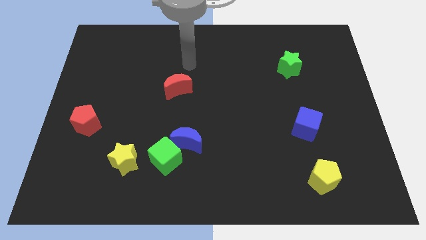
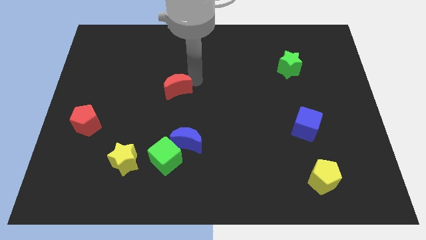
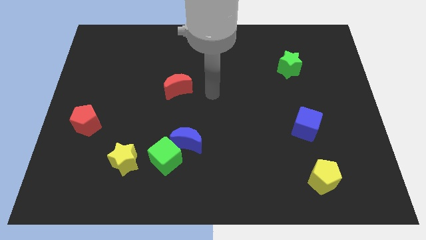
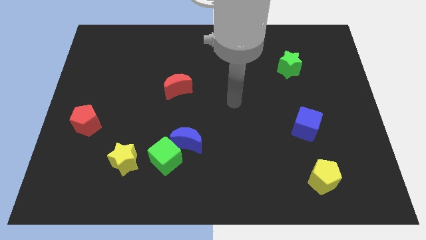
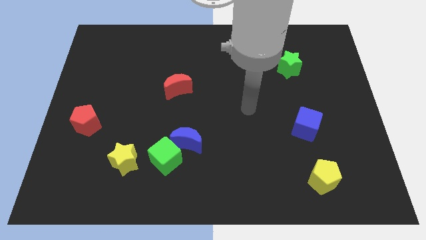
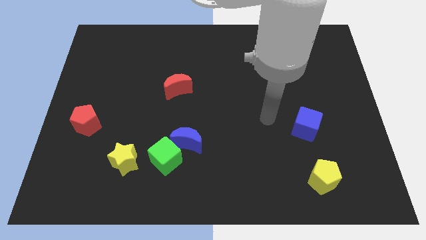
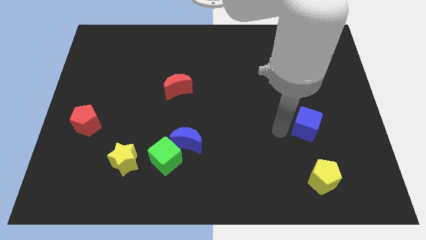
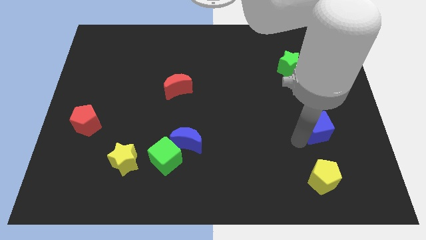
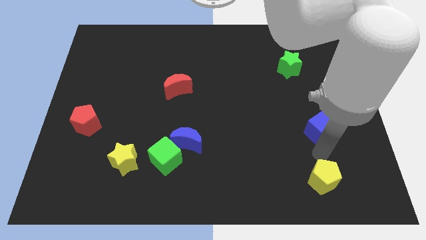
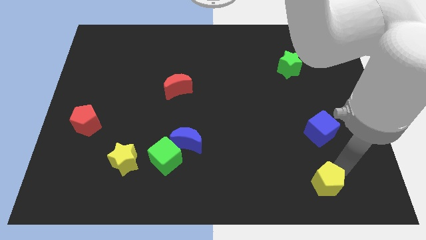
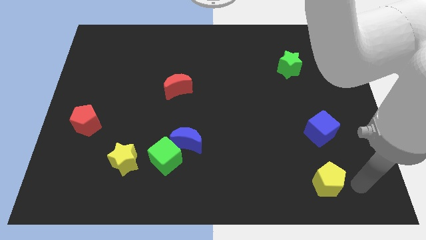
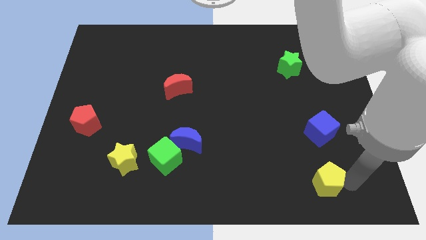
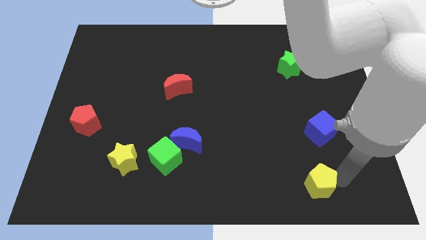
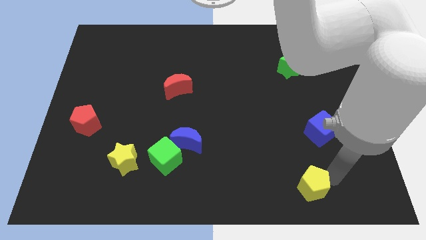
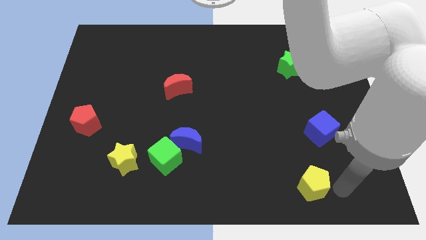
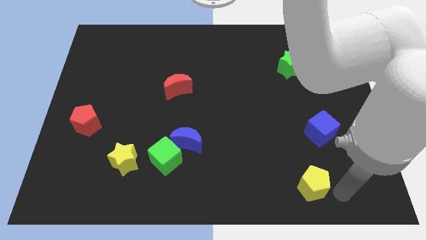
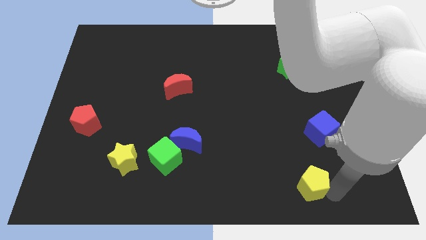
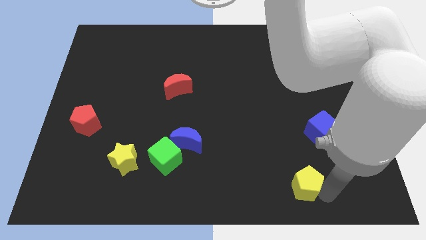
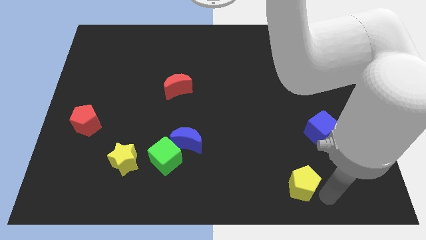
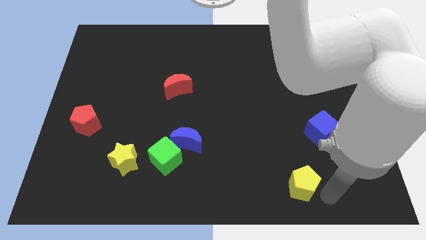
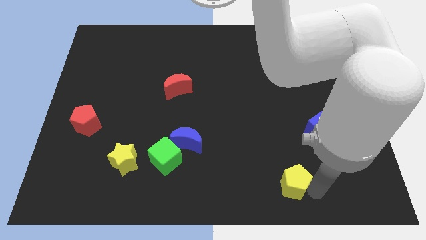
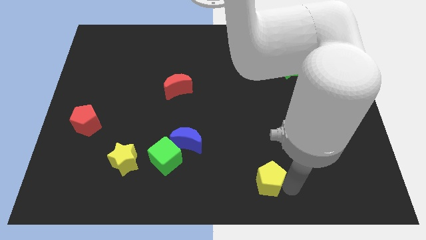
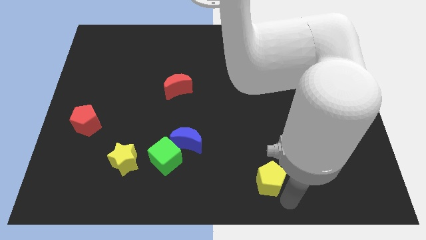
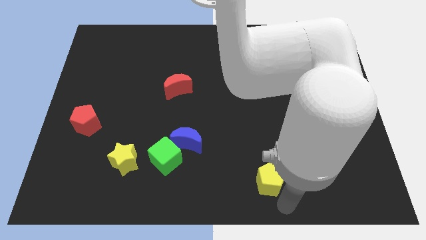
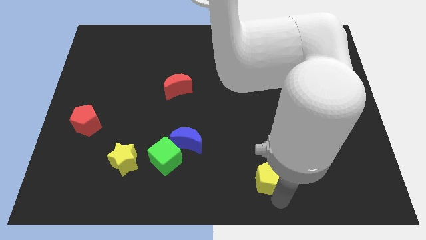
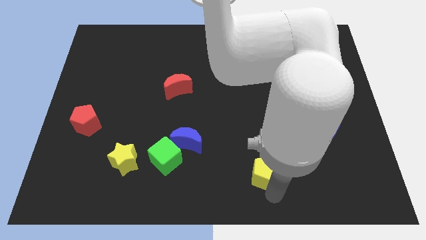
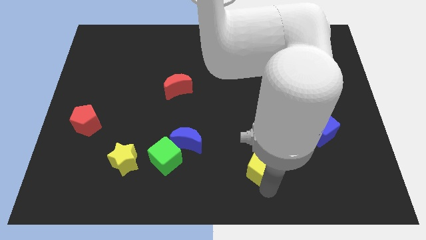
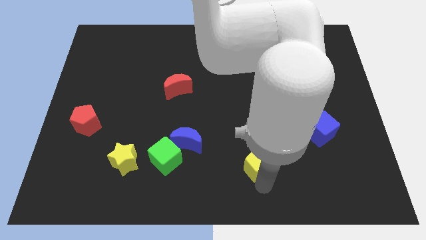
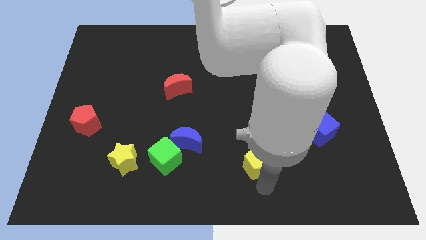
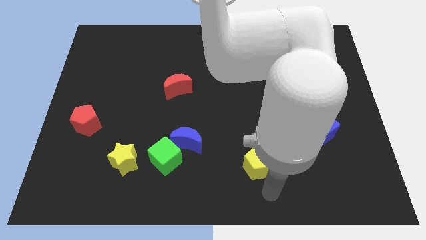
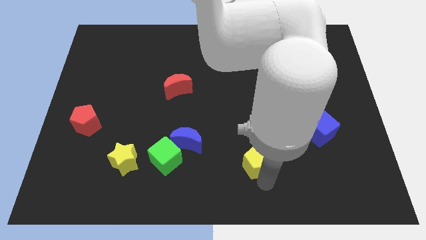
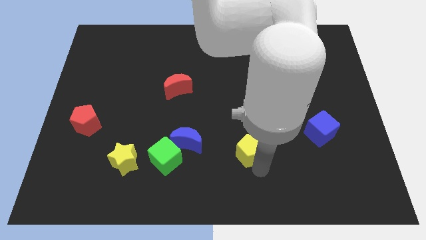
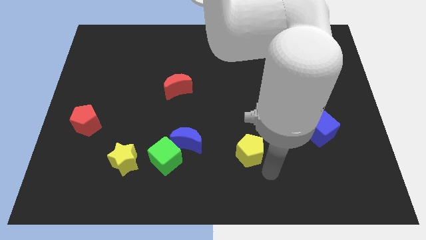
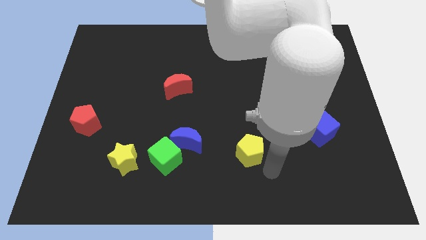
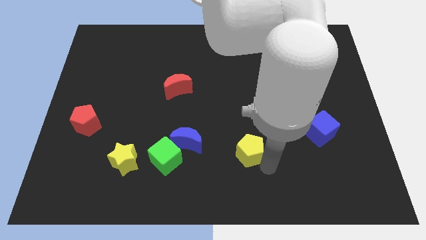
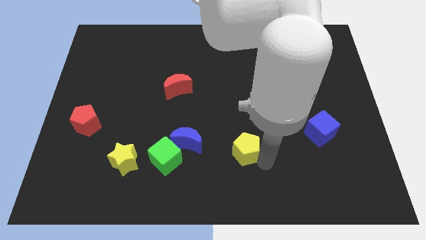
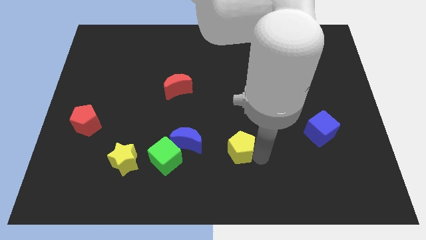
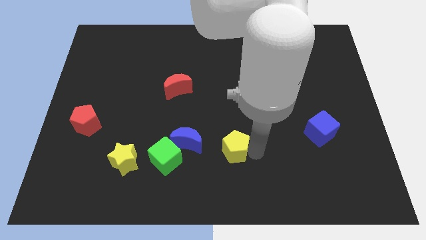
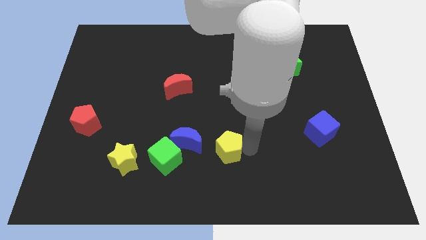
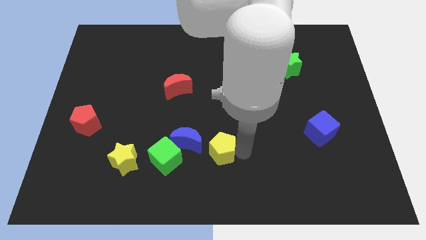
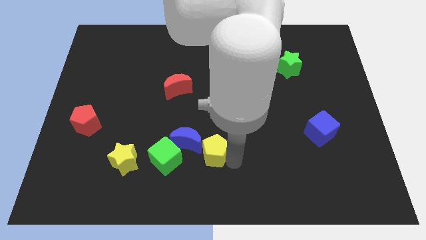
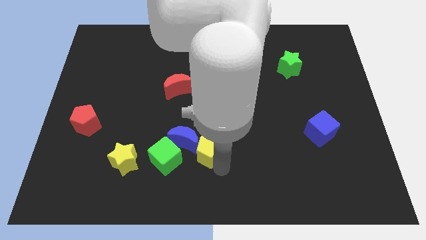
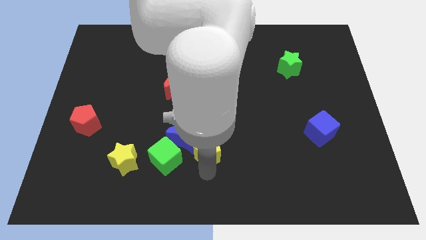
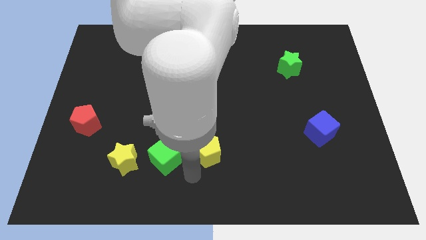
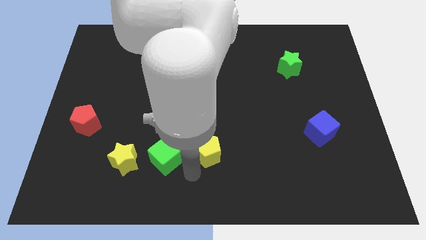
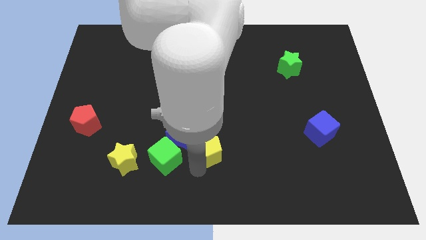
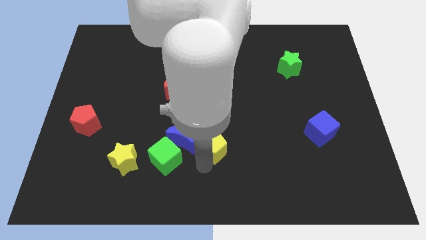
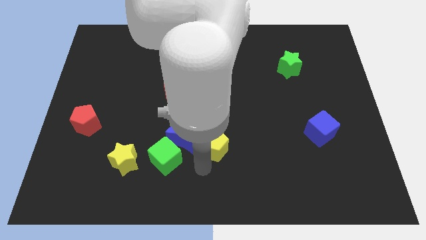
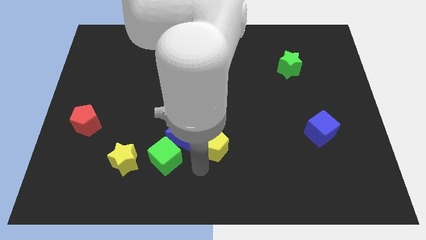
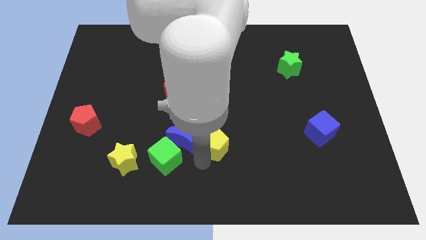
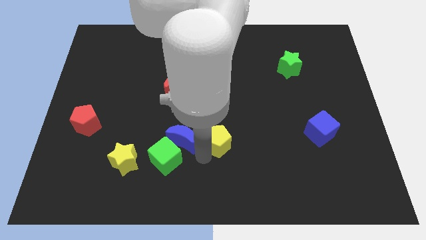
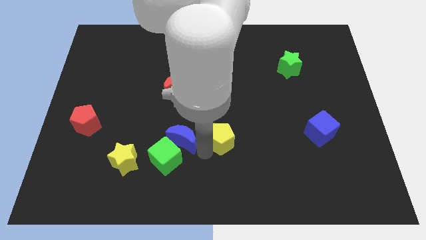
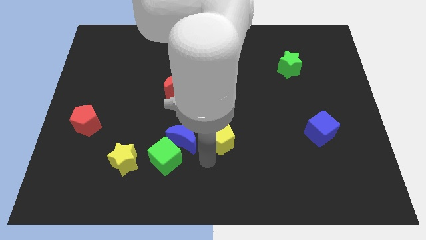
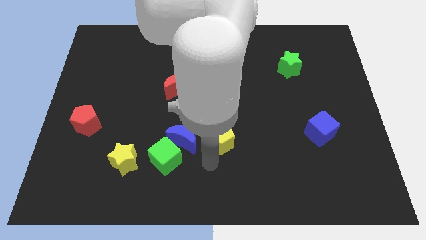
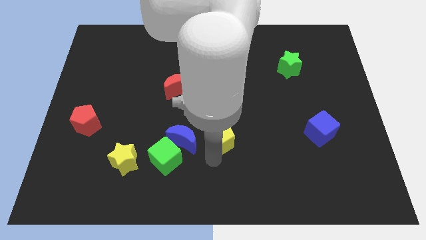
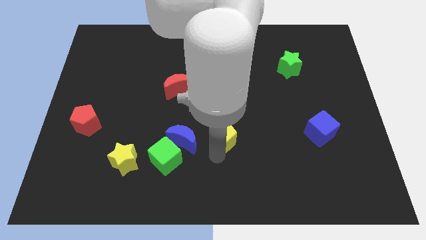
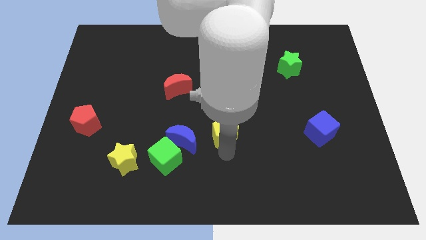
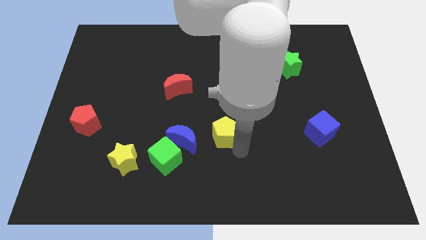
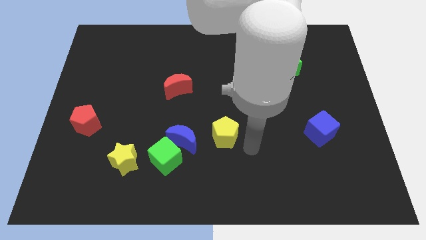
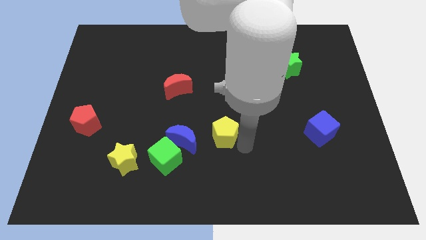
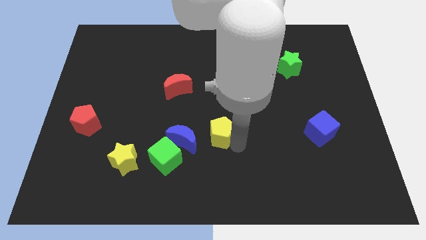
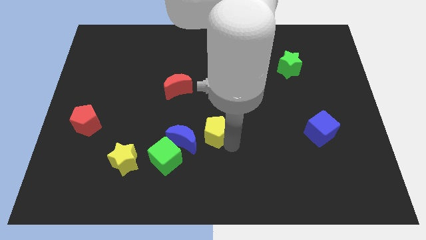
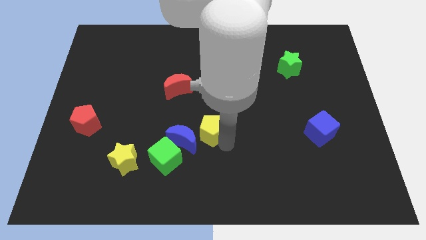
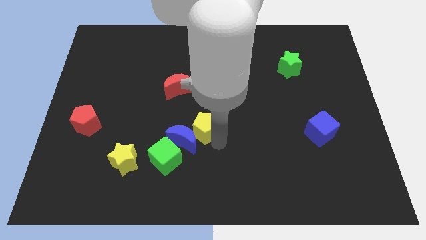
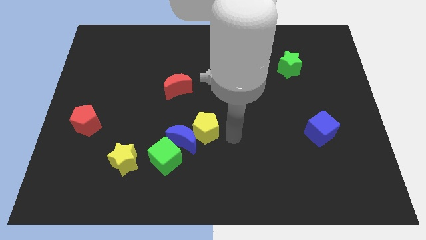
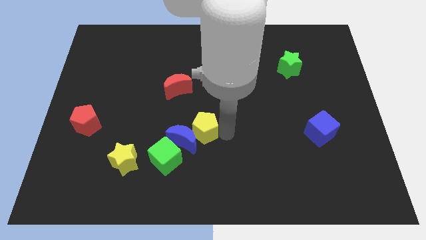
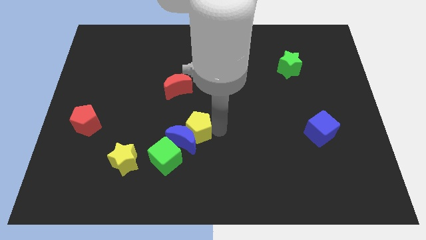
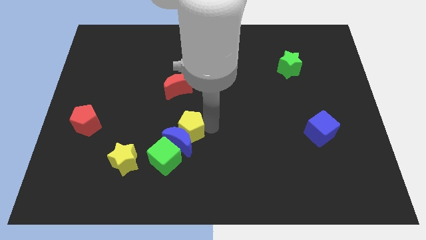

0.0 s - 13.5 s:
move the yellow pentagon to the top left side of the blue moon

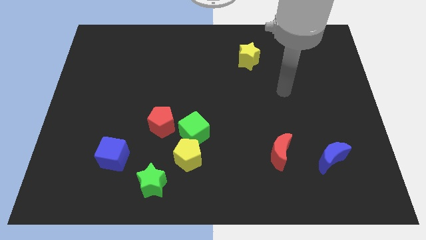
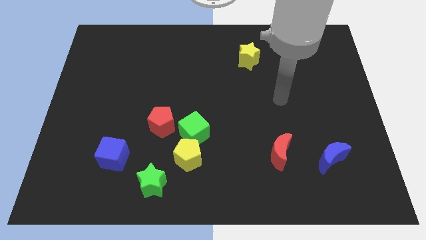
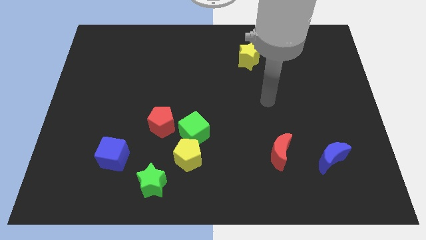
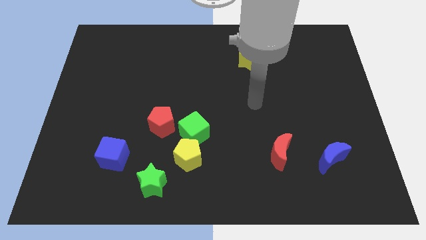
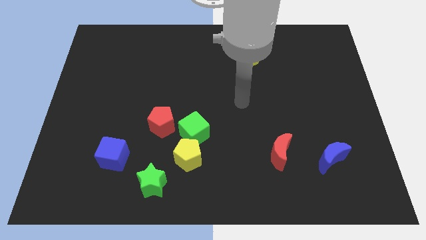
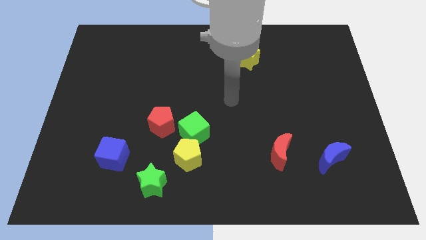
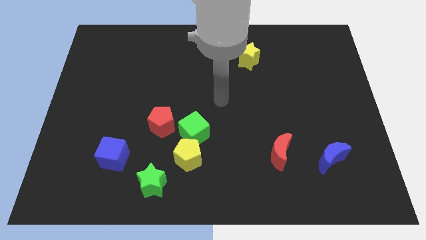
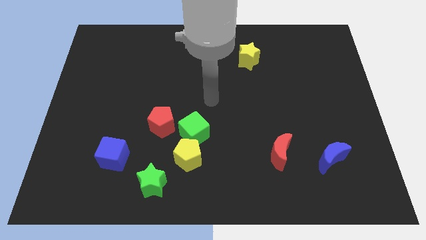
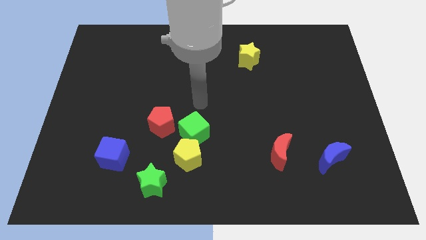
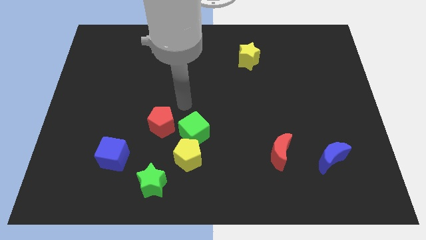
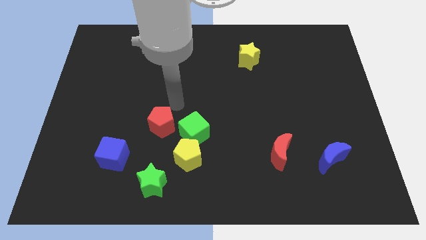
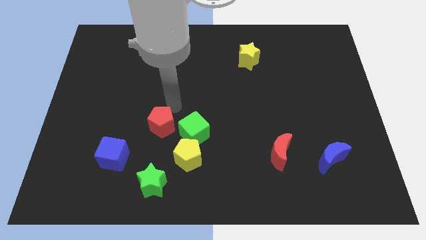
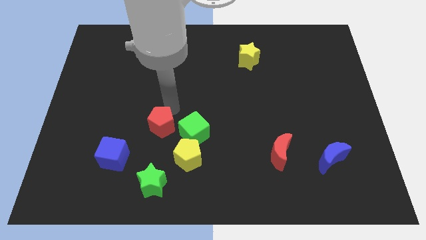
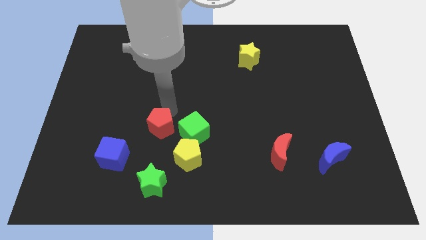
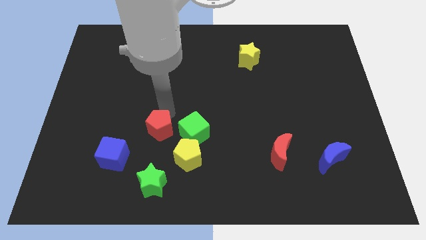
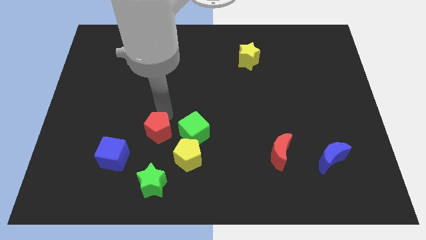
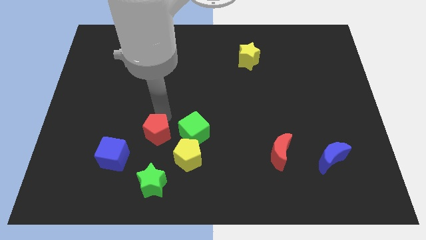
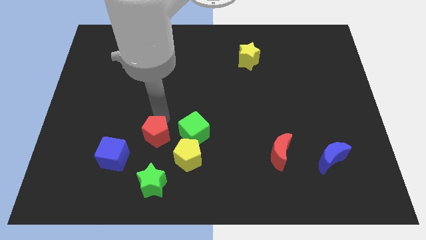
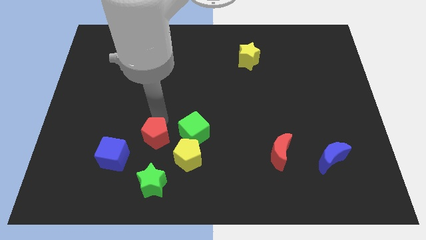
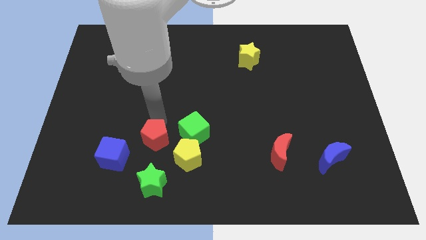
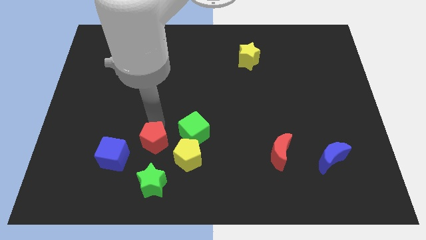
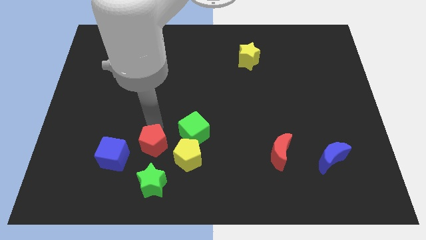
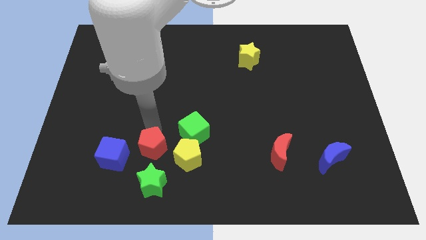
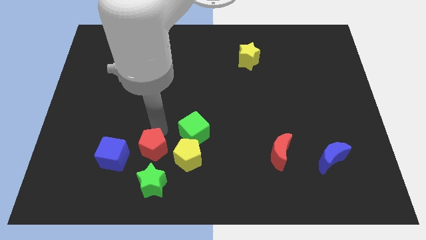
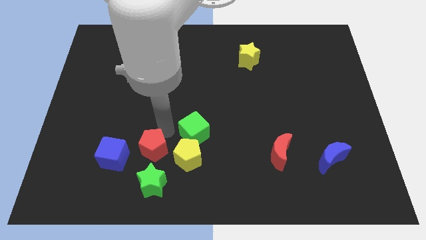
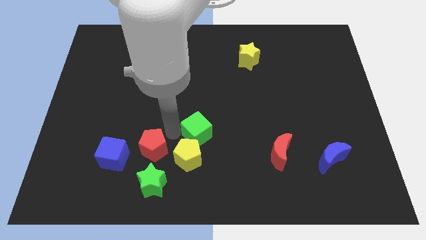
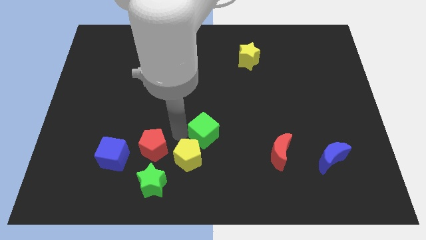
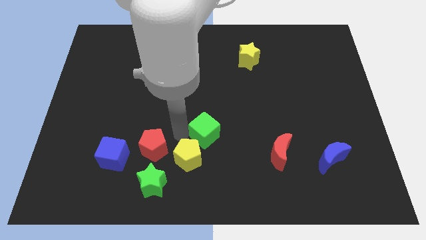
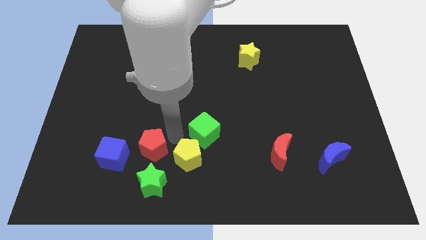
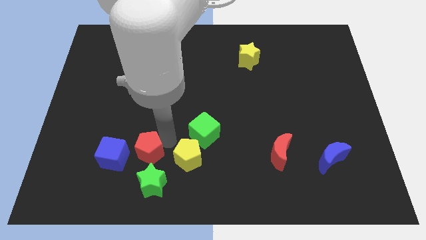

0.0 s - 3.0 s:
put the red pentagon to the top left side of the green star
